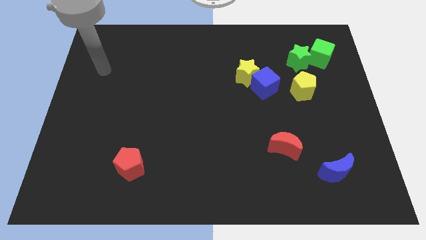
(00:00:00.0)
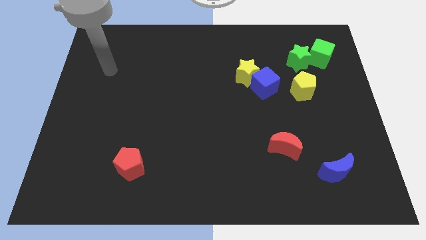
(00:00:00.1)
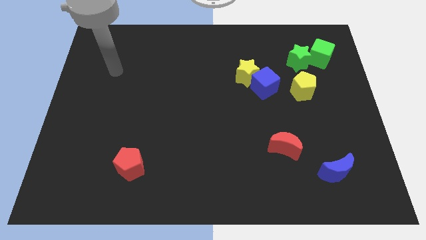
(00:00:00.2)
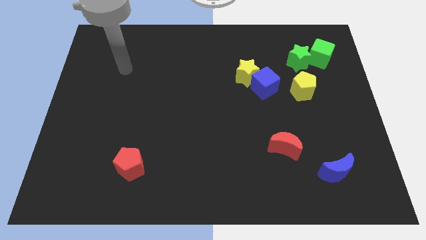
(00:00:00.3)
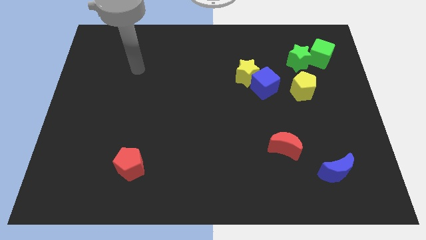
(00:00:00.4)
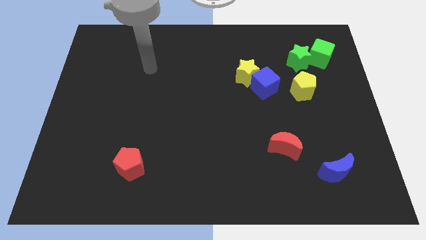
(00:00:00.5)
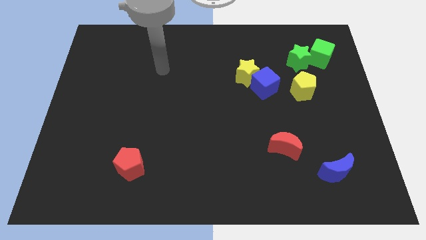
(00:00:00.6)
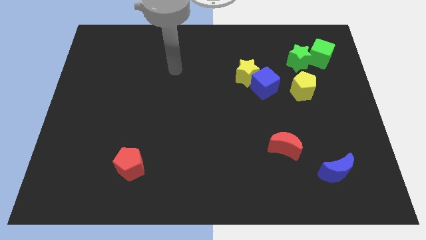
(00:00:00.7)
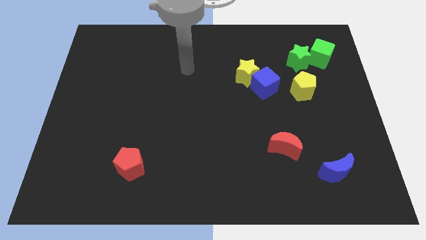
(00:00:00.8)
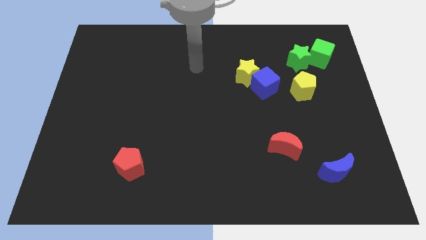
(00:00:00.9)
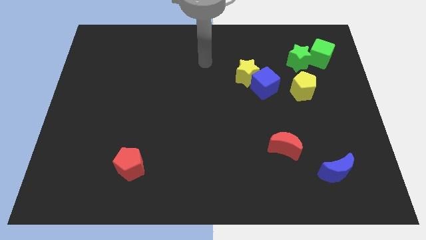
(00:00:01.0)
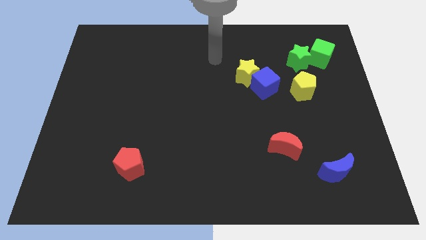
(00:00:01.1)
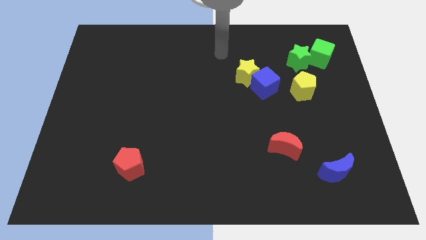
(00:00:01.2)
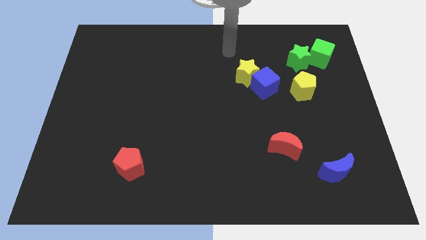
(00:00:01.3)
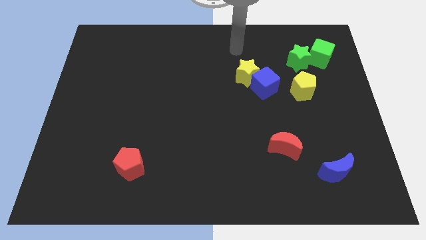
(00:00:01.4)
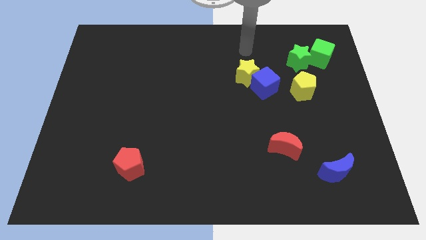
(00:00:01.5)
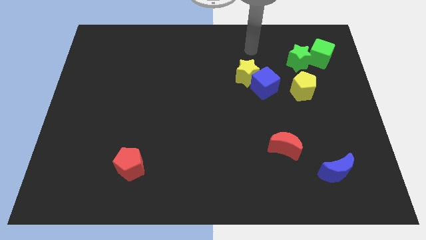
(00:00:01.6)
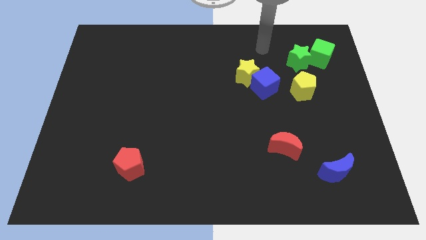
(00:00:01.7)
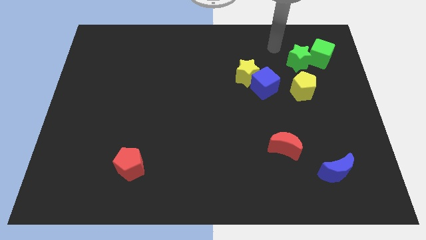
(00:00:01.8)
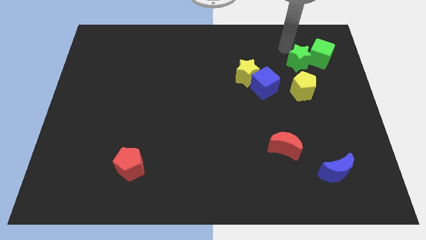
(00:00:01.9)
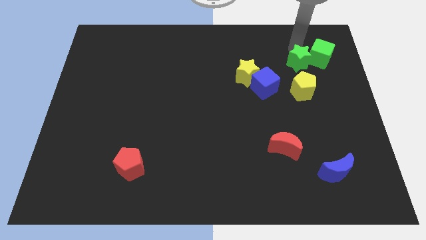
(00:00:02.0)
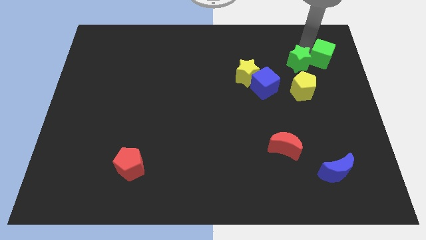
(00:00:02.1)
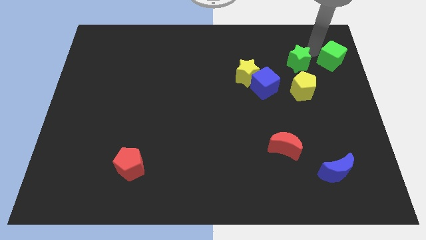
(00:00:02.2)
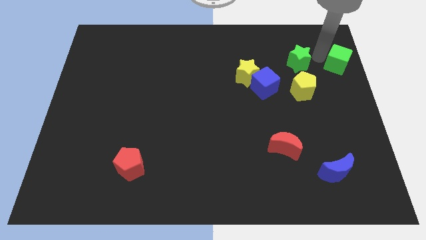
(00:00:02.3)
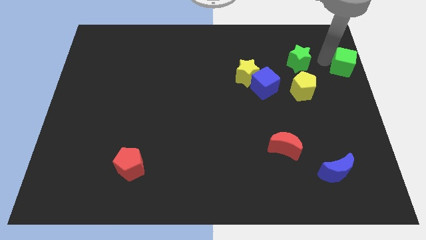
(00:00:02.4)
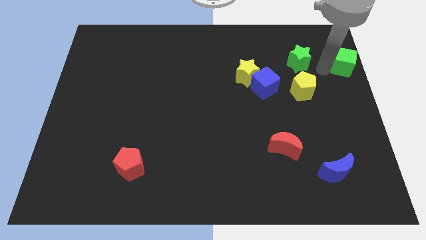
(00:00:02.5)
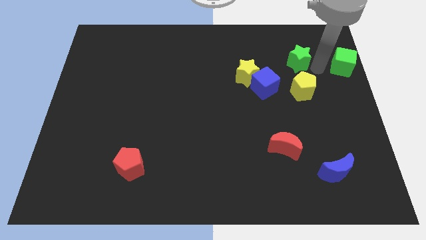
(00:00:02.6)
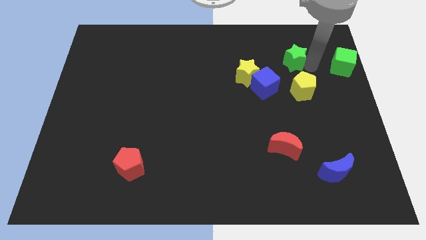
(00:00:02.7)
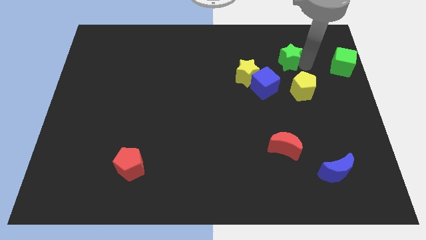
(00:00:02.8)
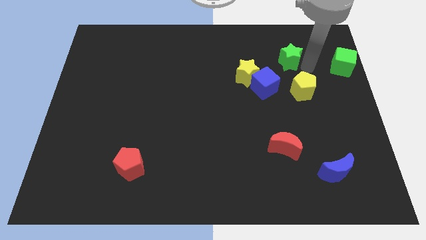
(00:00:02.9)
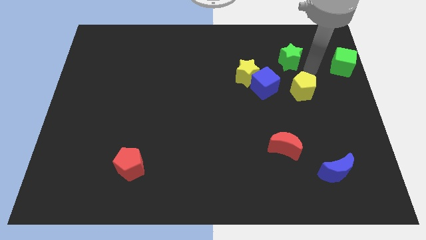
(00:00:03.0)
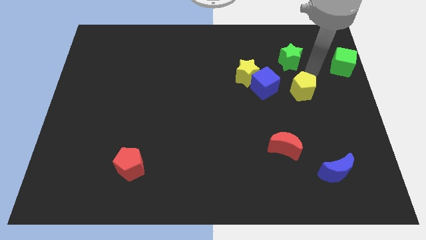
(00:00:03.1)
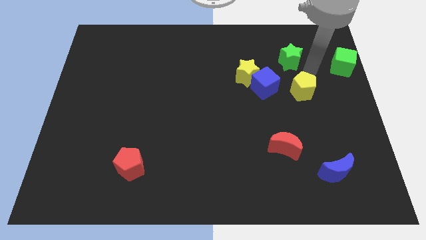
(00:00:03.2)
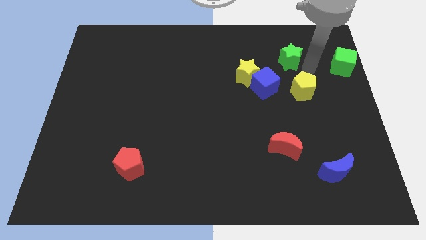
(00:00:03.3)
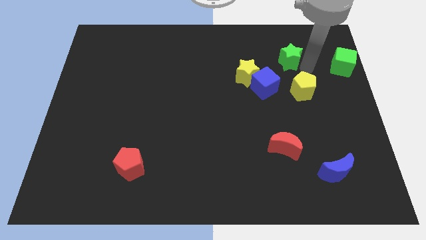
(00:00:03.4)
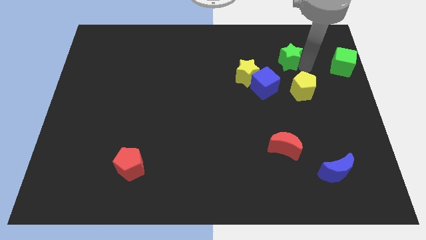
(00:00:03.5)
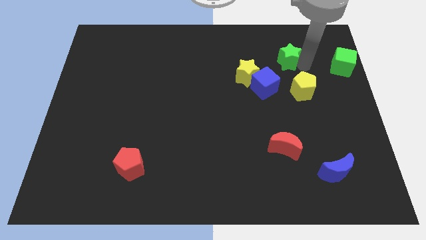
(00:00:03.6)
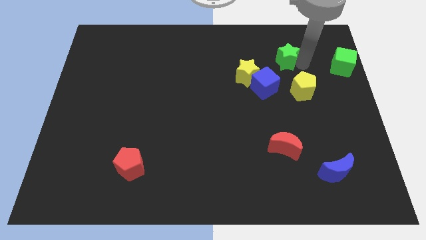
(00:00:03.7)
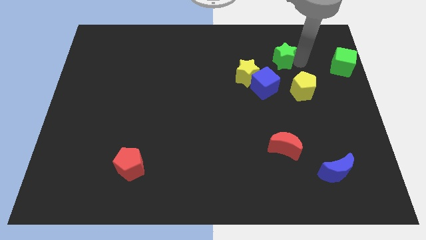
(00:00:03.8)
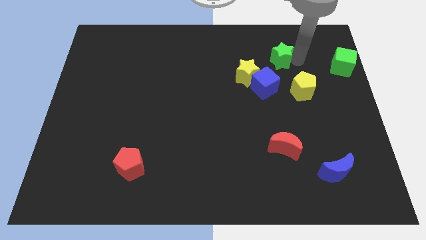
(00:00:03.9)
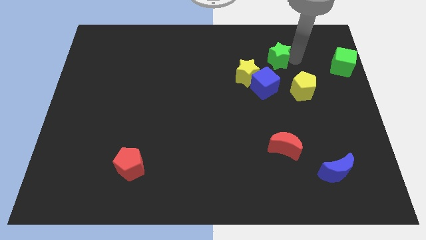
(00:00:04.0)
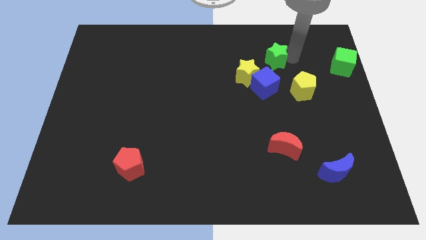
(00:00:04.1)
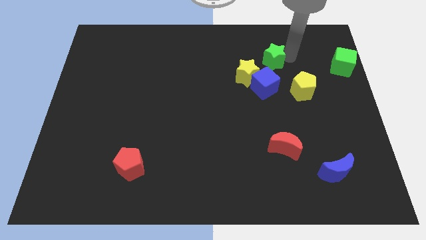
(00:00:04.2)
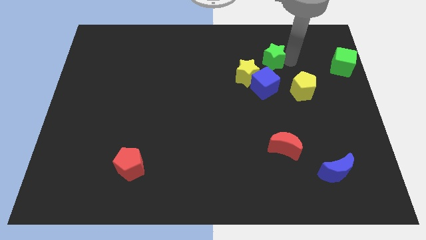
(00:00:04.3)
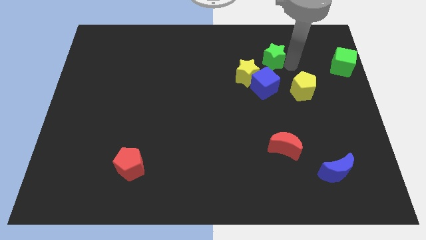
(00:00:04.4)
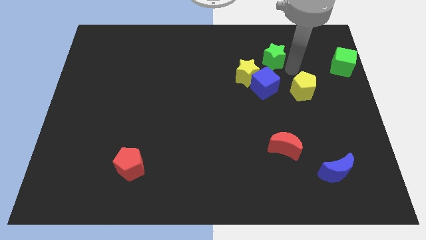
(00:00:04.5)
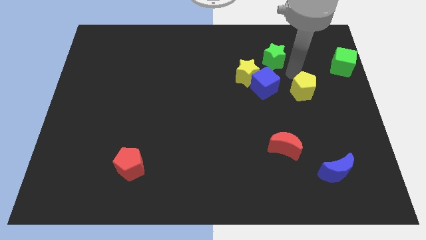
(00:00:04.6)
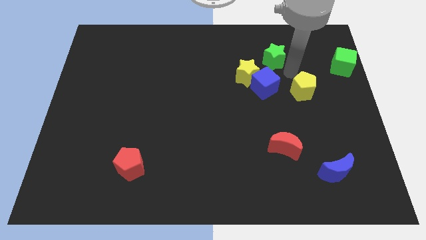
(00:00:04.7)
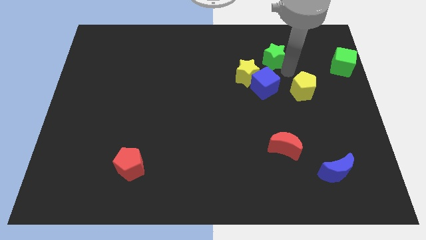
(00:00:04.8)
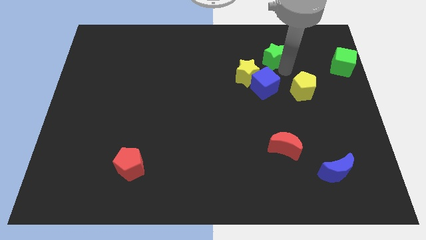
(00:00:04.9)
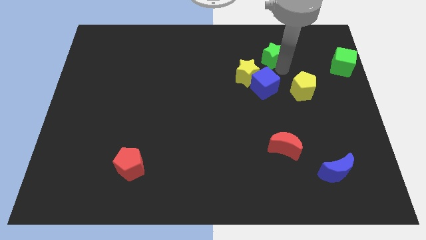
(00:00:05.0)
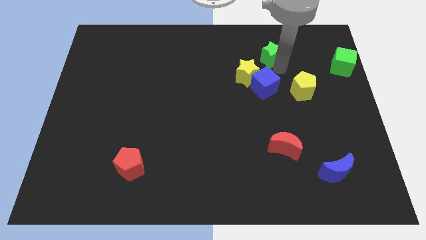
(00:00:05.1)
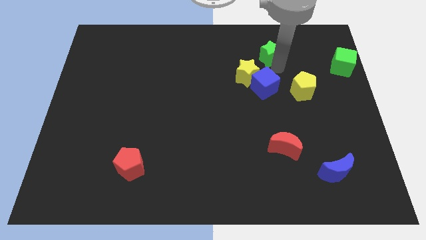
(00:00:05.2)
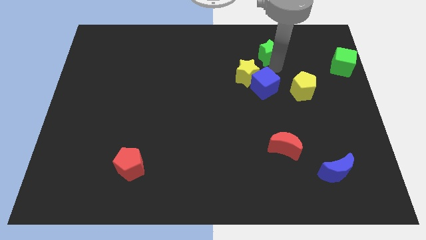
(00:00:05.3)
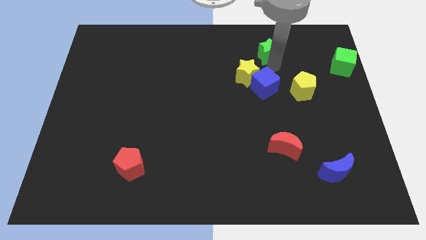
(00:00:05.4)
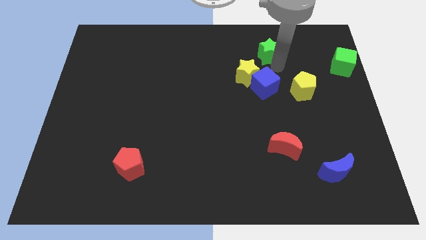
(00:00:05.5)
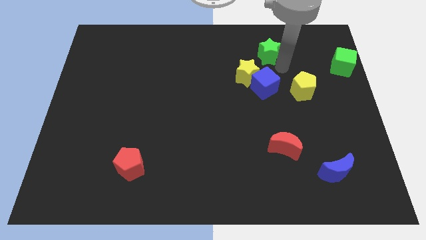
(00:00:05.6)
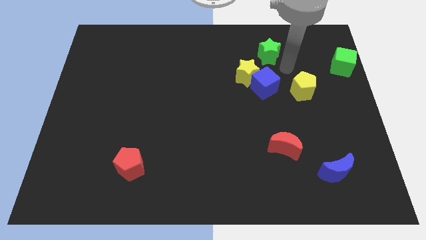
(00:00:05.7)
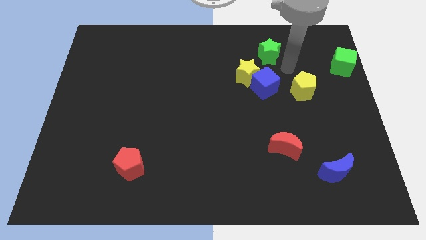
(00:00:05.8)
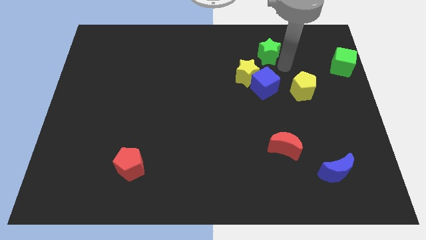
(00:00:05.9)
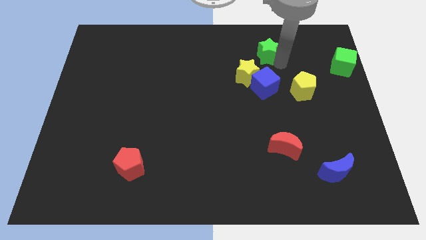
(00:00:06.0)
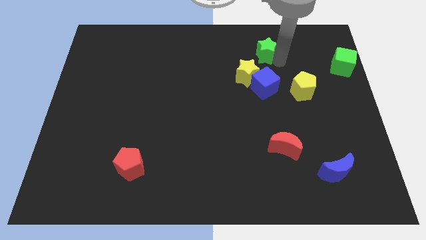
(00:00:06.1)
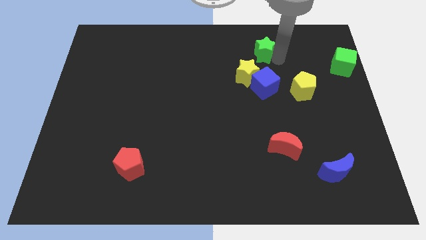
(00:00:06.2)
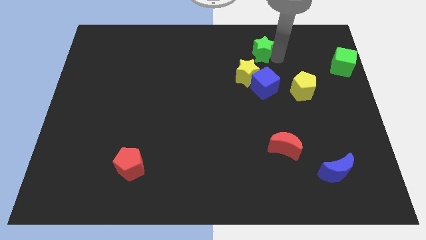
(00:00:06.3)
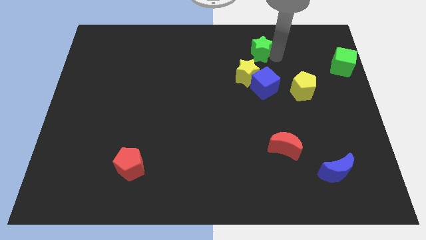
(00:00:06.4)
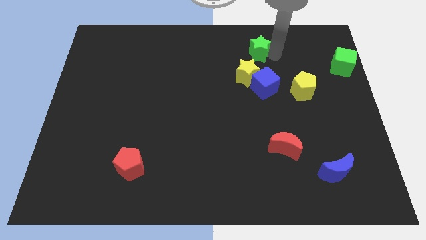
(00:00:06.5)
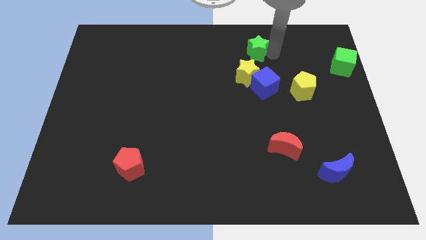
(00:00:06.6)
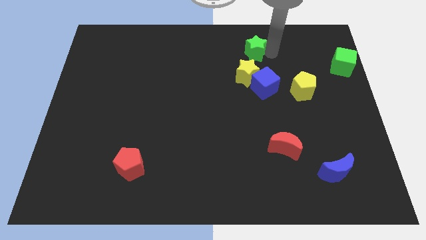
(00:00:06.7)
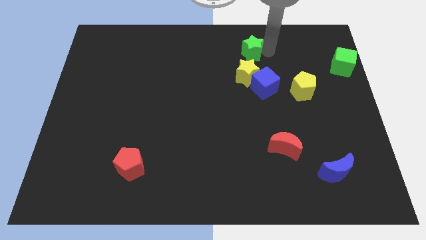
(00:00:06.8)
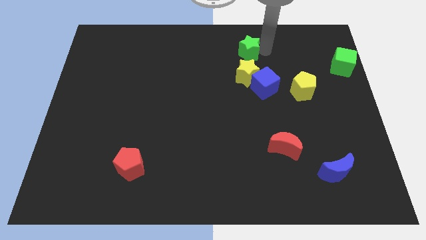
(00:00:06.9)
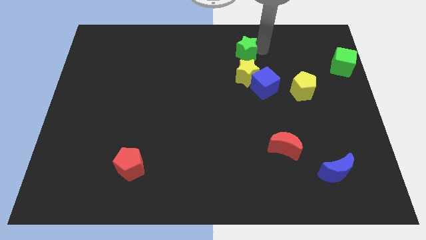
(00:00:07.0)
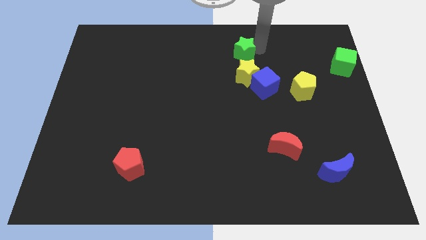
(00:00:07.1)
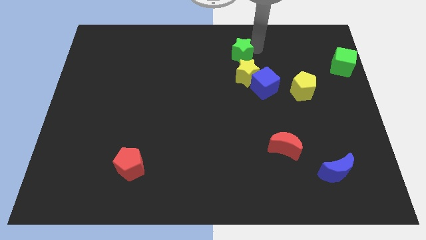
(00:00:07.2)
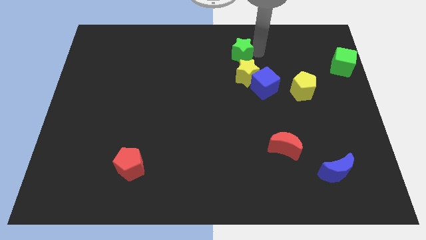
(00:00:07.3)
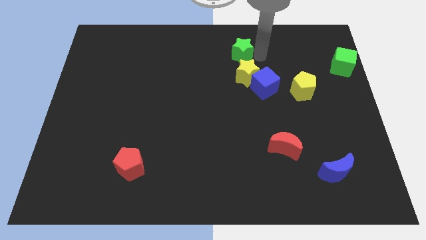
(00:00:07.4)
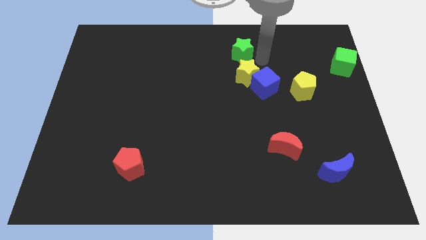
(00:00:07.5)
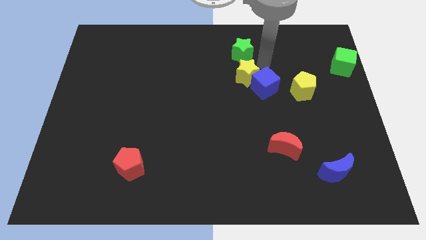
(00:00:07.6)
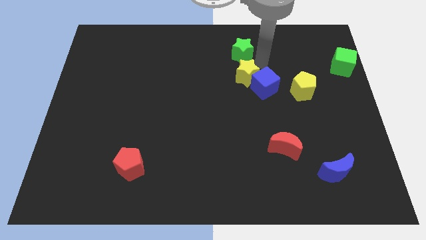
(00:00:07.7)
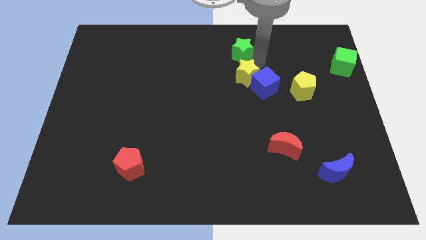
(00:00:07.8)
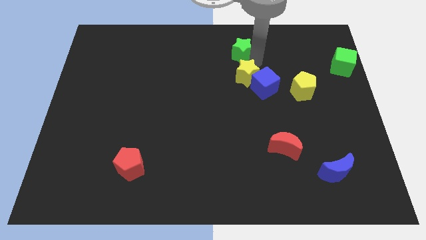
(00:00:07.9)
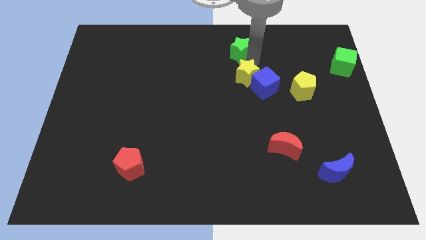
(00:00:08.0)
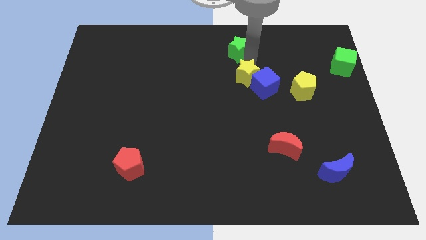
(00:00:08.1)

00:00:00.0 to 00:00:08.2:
push the green star to the top side
